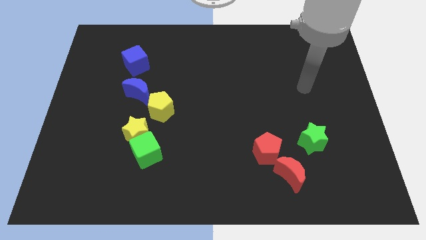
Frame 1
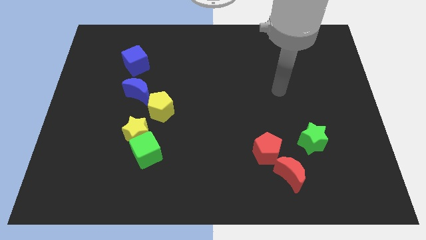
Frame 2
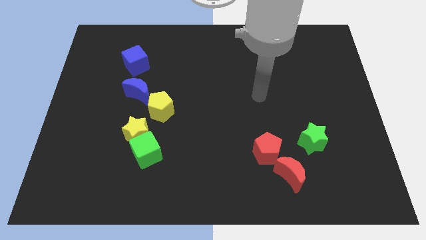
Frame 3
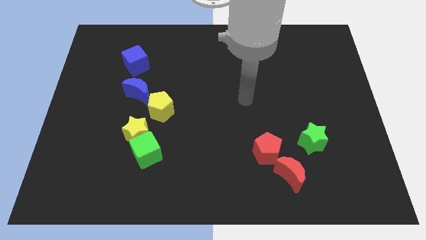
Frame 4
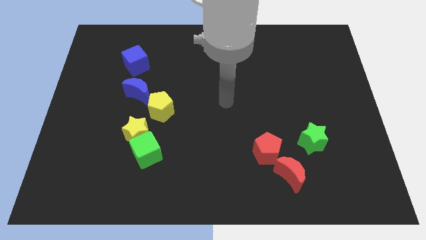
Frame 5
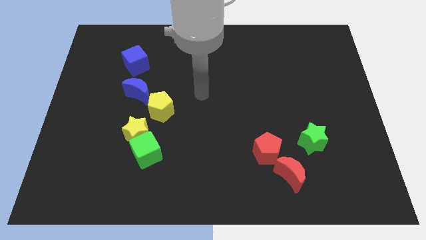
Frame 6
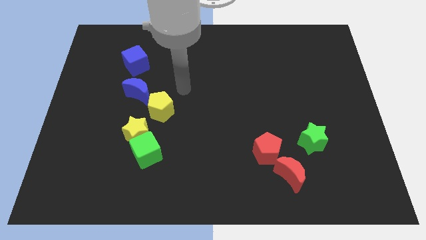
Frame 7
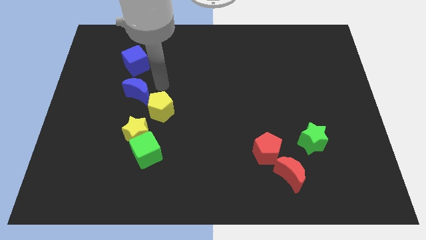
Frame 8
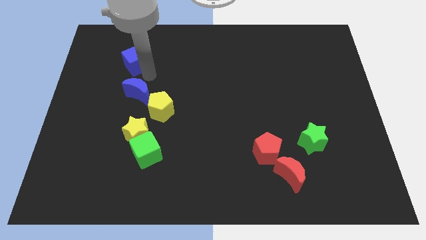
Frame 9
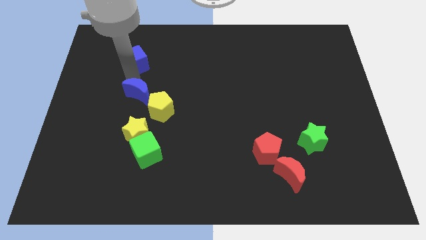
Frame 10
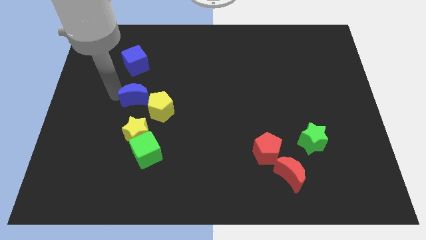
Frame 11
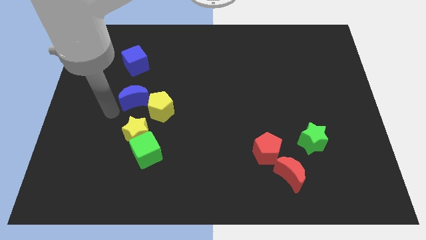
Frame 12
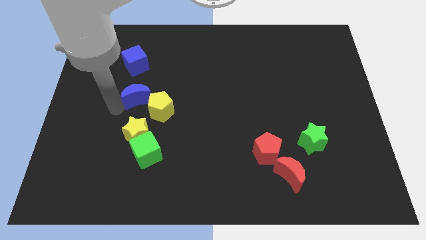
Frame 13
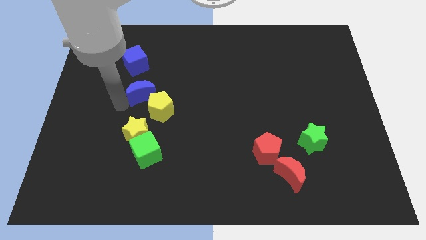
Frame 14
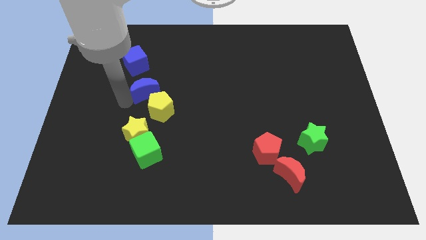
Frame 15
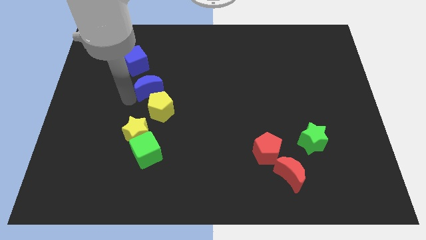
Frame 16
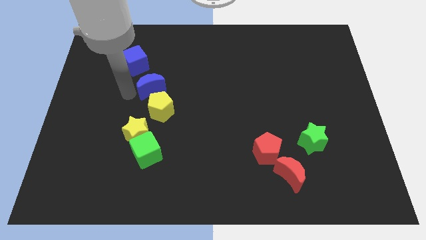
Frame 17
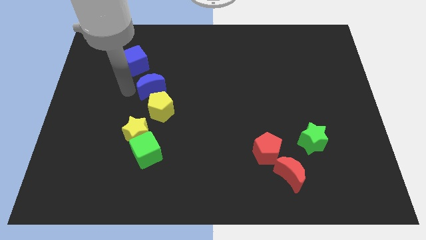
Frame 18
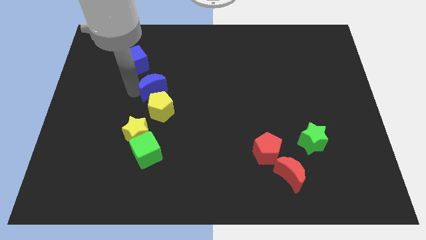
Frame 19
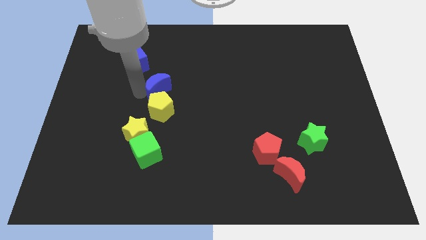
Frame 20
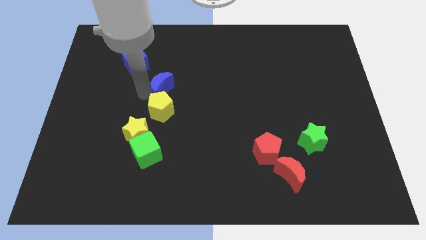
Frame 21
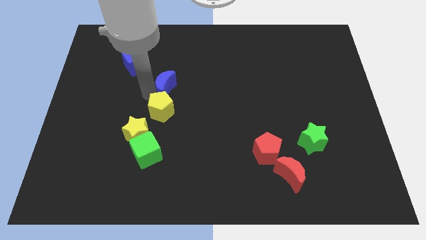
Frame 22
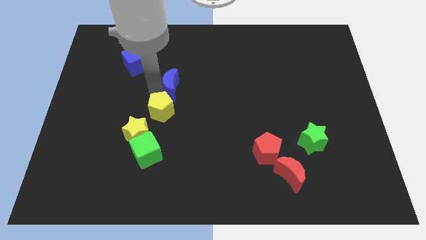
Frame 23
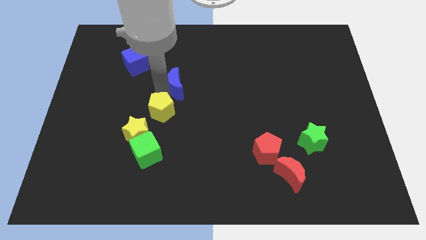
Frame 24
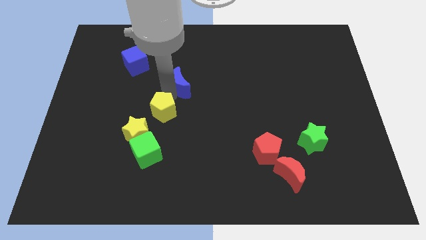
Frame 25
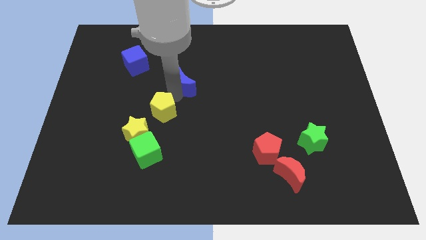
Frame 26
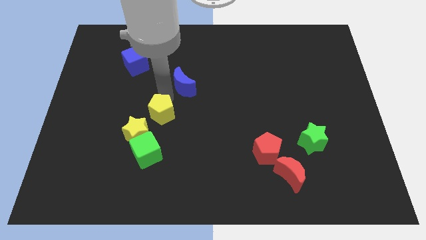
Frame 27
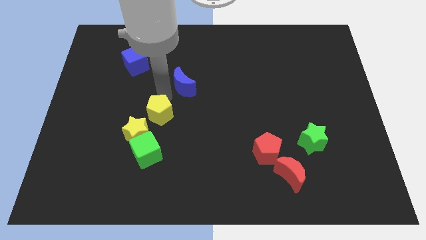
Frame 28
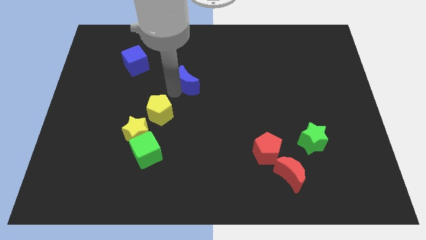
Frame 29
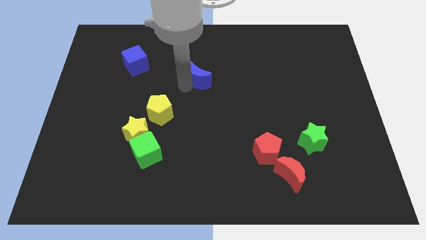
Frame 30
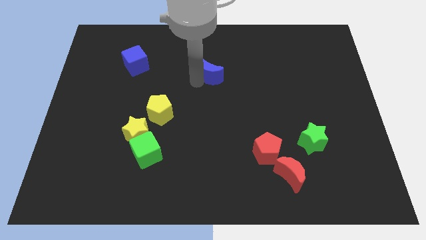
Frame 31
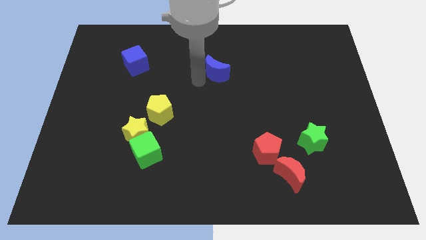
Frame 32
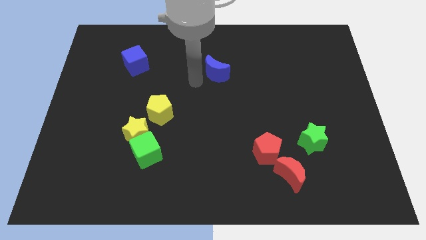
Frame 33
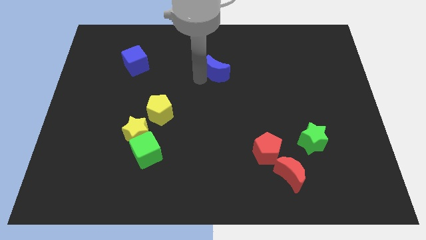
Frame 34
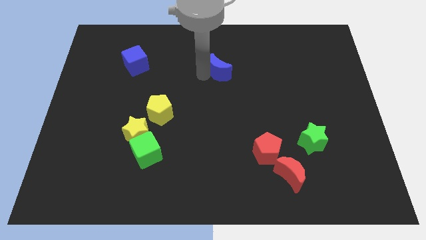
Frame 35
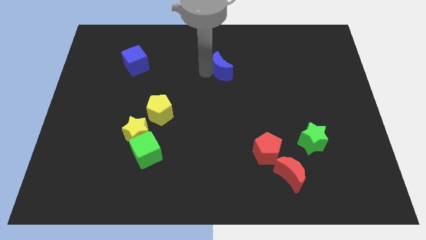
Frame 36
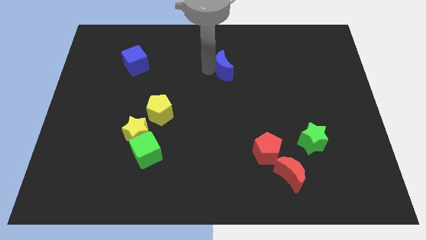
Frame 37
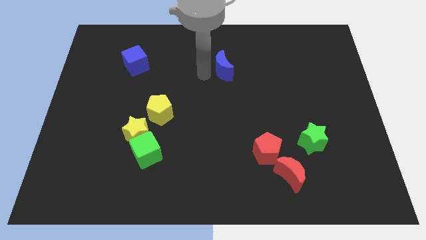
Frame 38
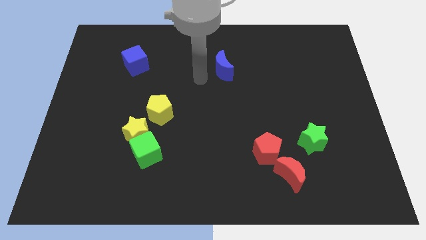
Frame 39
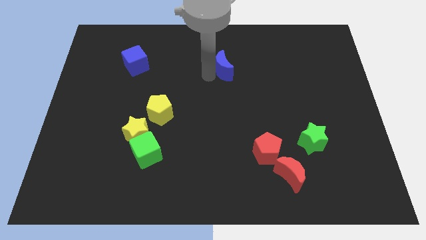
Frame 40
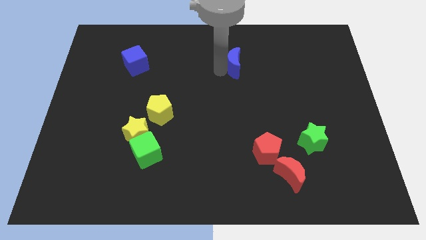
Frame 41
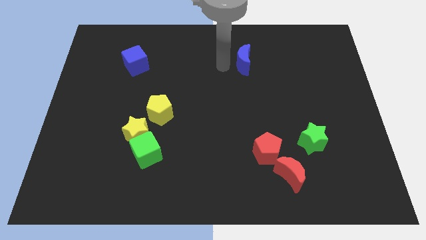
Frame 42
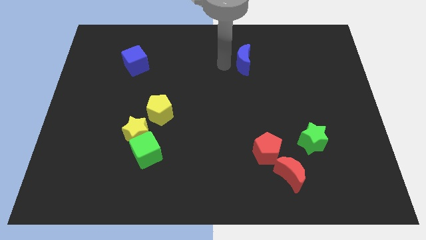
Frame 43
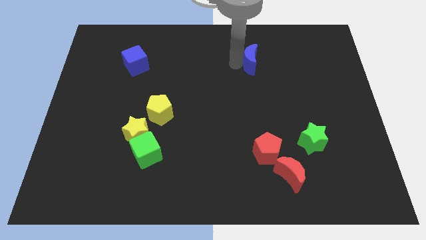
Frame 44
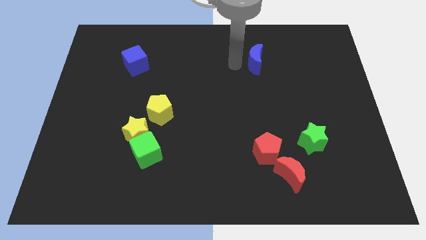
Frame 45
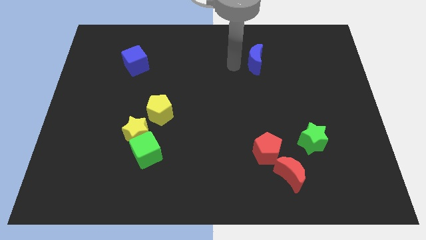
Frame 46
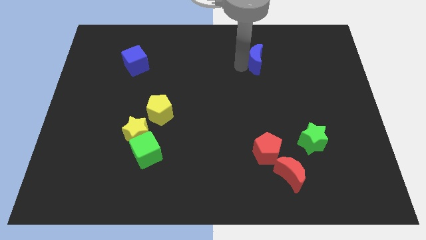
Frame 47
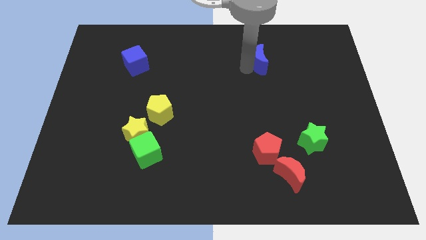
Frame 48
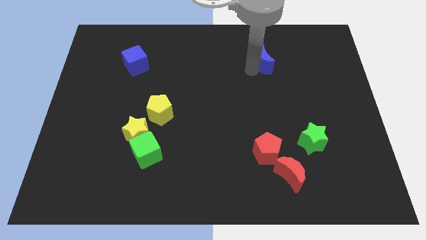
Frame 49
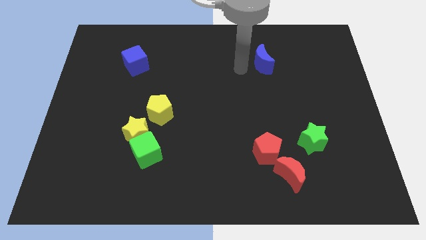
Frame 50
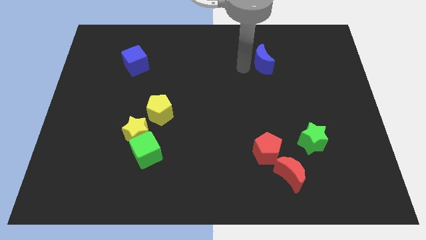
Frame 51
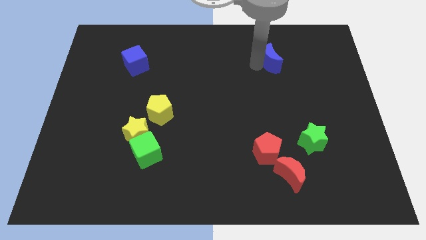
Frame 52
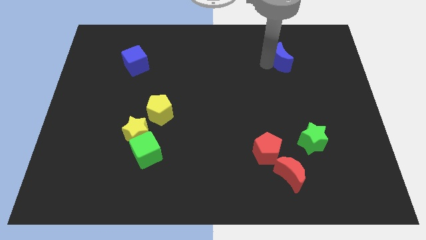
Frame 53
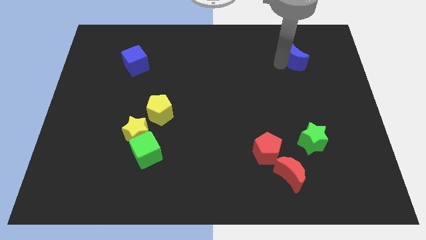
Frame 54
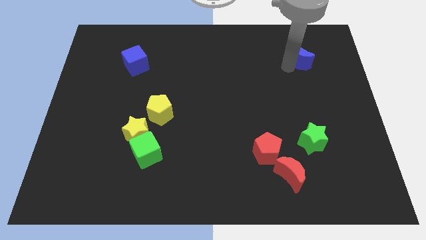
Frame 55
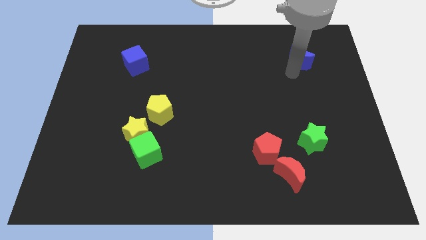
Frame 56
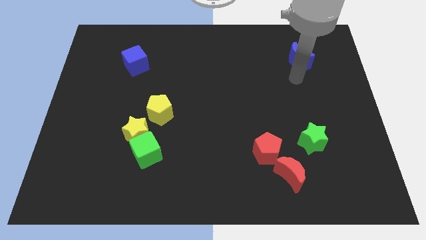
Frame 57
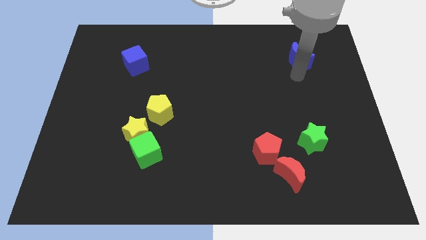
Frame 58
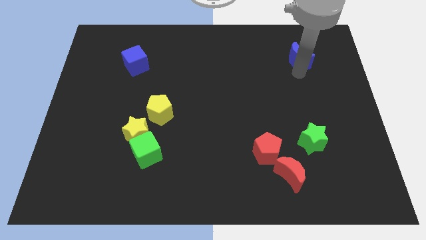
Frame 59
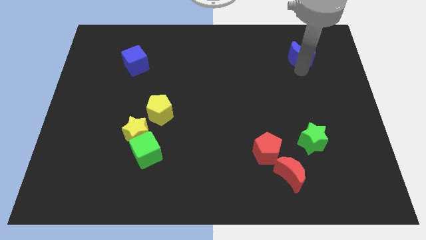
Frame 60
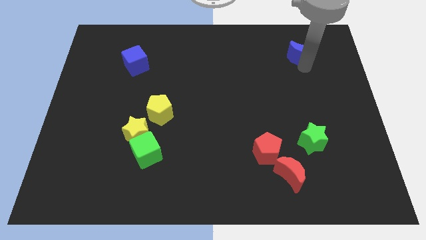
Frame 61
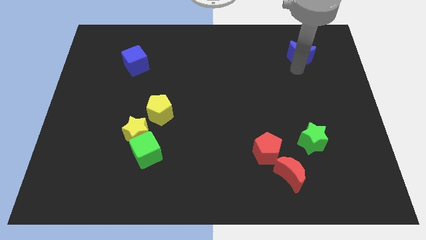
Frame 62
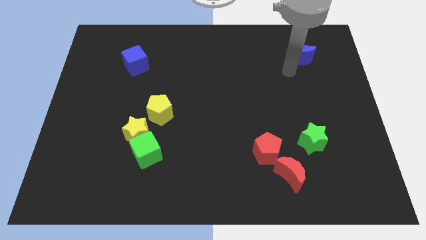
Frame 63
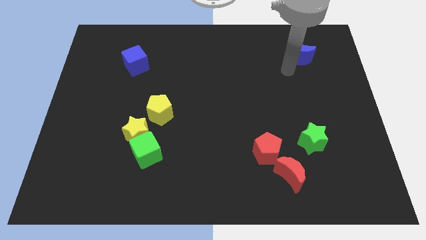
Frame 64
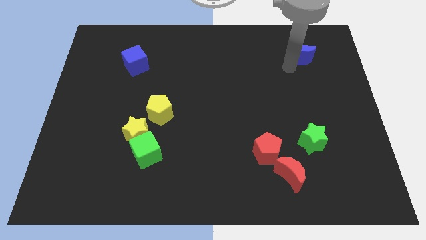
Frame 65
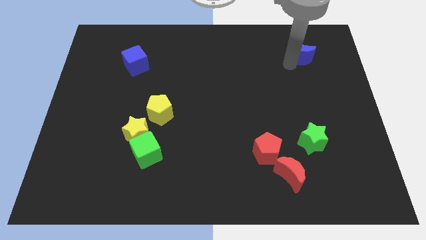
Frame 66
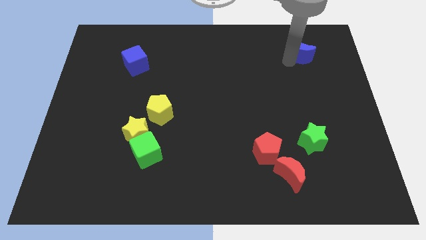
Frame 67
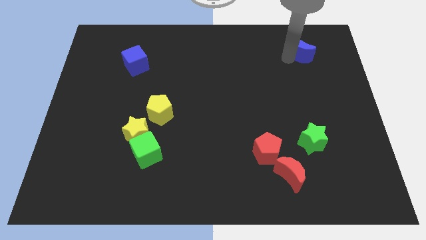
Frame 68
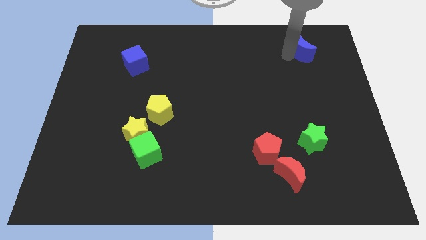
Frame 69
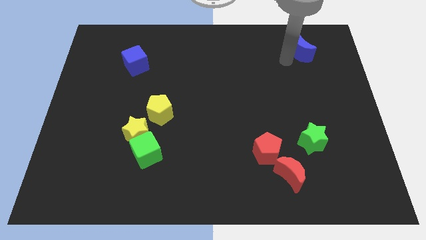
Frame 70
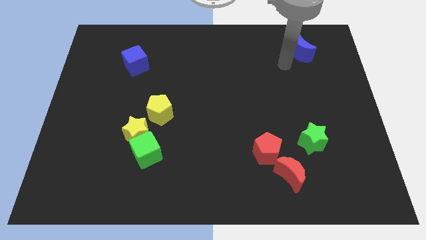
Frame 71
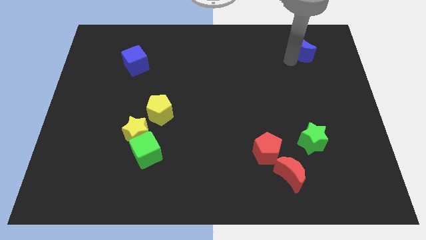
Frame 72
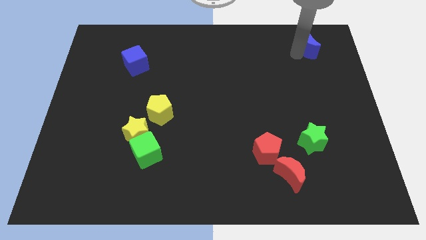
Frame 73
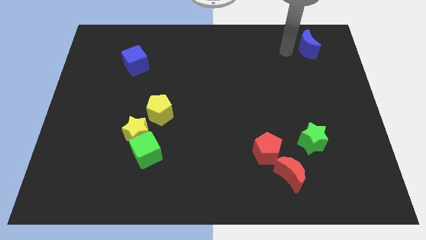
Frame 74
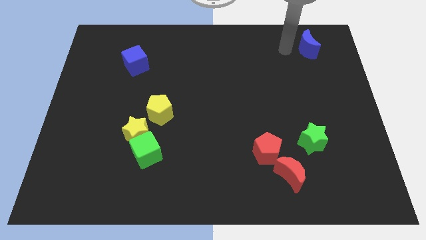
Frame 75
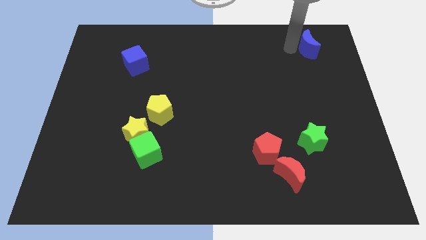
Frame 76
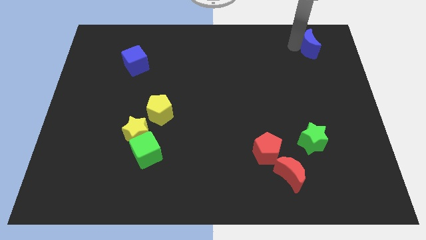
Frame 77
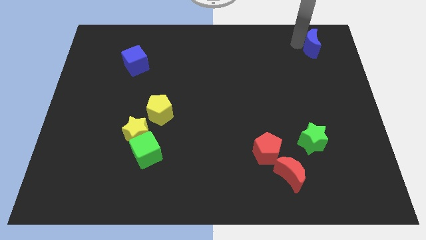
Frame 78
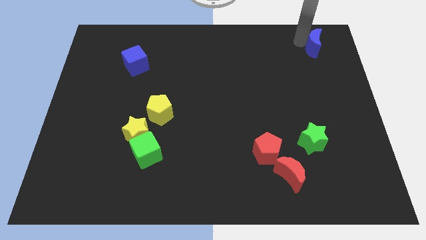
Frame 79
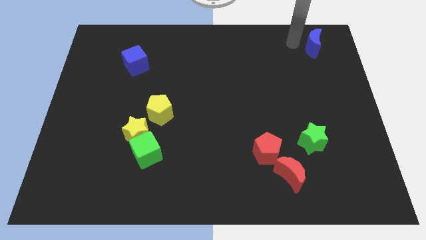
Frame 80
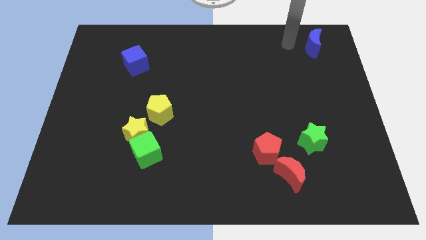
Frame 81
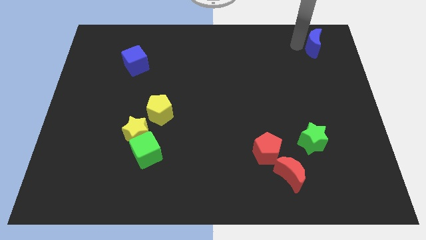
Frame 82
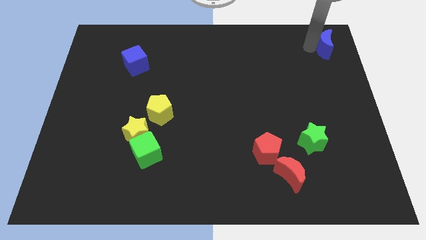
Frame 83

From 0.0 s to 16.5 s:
put the blue moon to the top right of the board
